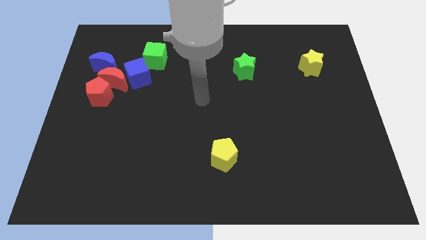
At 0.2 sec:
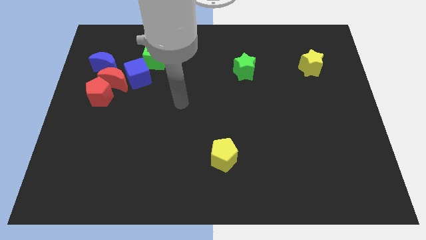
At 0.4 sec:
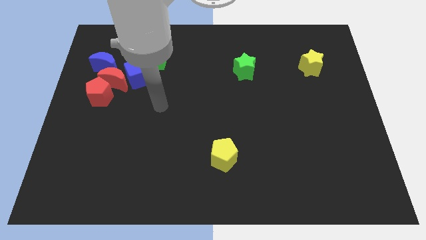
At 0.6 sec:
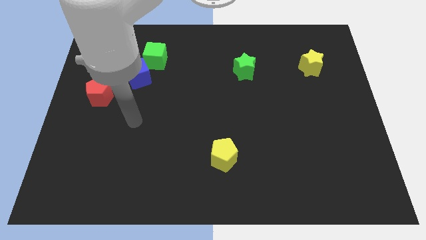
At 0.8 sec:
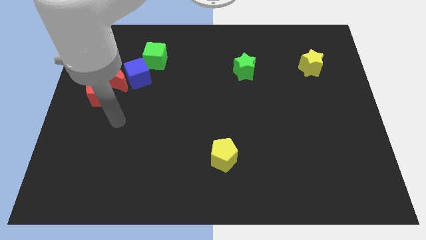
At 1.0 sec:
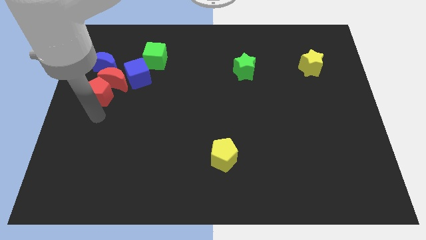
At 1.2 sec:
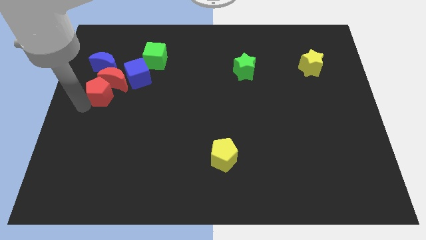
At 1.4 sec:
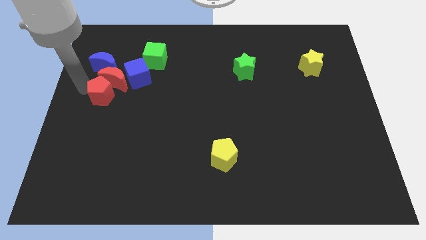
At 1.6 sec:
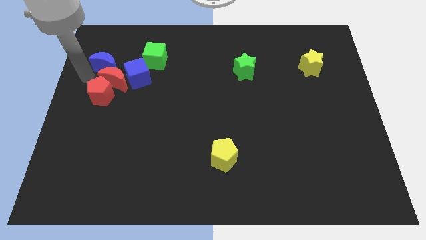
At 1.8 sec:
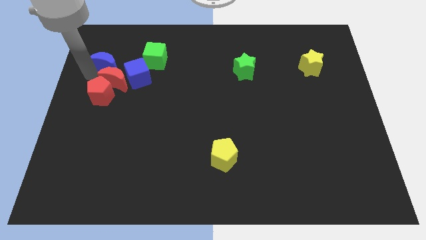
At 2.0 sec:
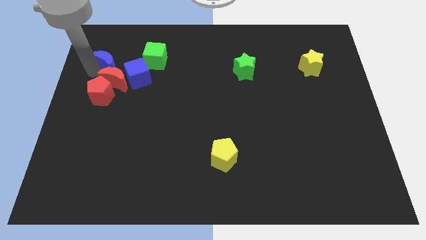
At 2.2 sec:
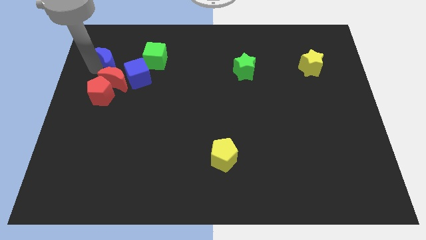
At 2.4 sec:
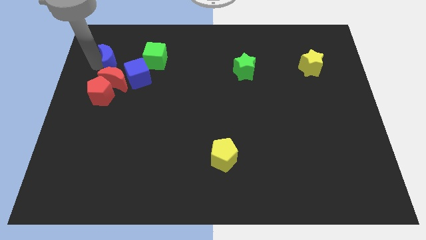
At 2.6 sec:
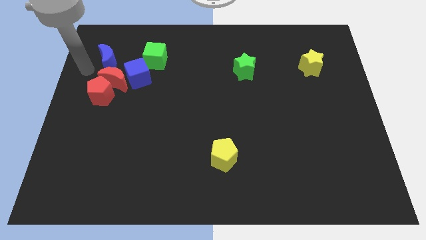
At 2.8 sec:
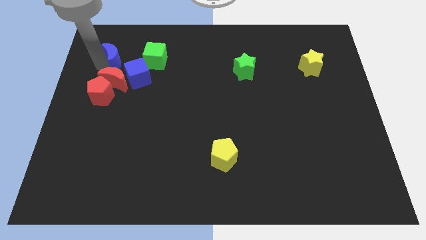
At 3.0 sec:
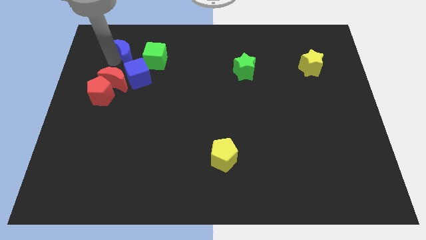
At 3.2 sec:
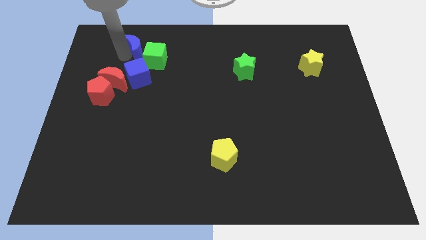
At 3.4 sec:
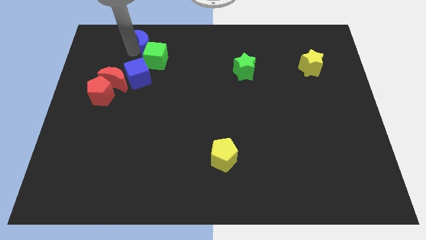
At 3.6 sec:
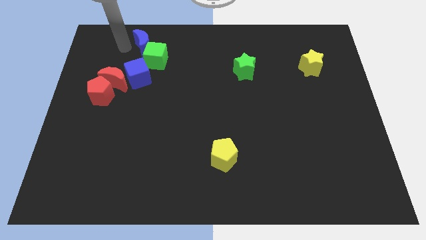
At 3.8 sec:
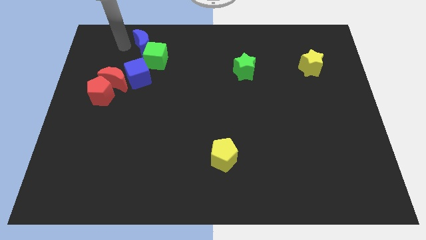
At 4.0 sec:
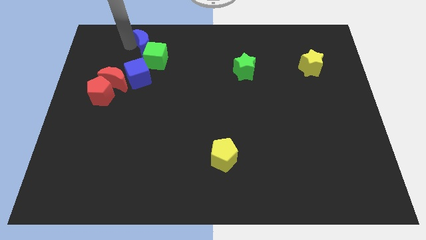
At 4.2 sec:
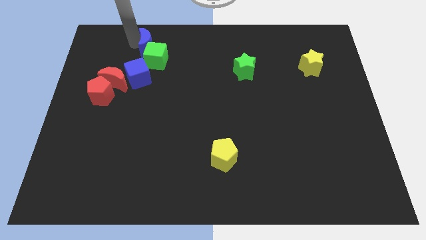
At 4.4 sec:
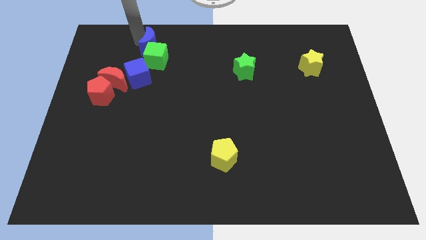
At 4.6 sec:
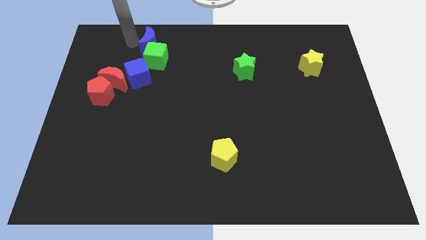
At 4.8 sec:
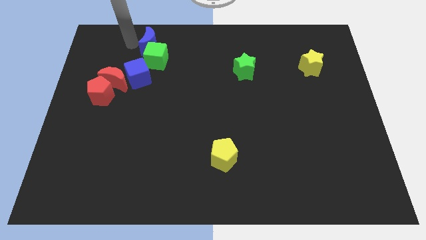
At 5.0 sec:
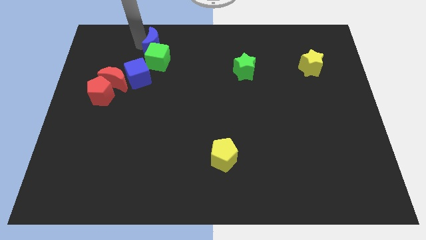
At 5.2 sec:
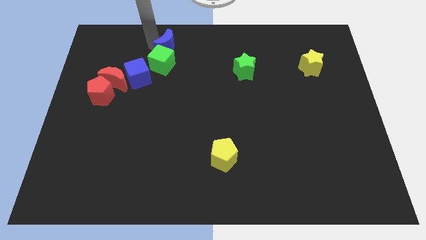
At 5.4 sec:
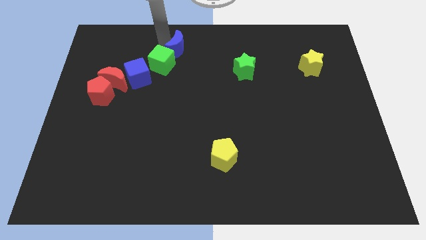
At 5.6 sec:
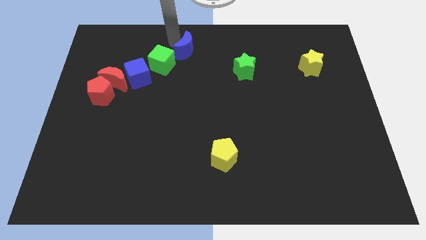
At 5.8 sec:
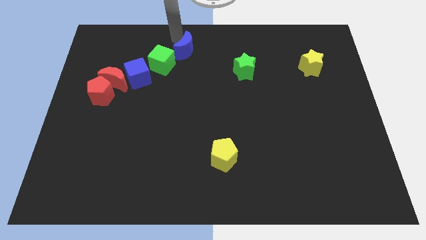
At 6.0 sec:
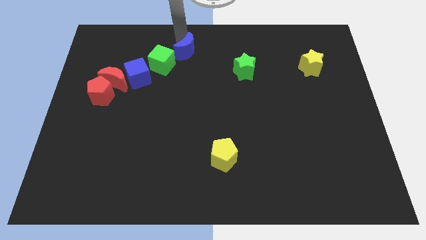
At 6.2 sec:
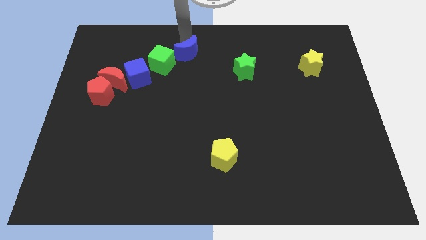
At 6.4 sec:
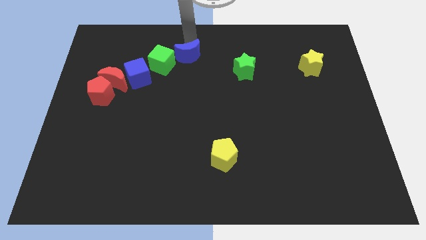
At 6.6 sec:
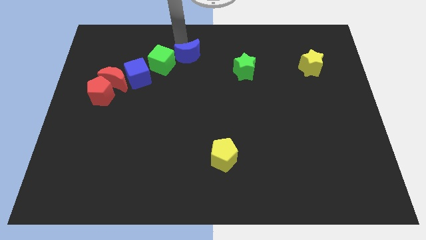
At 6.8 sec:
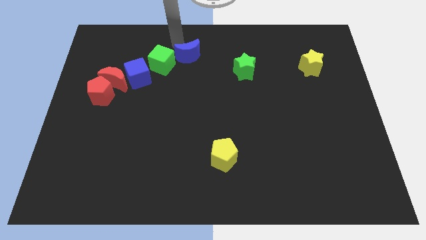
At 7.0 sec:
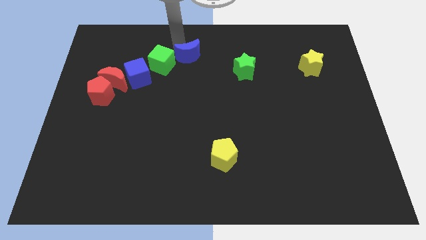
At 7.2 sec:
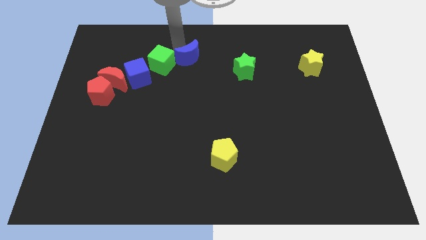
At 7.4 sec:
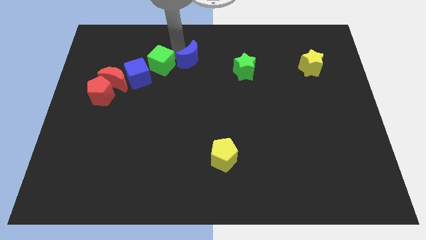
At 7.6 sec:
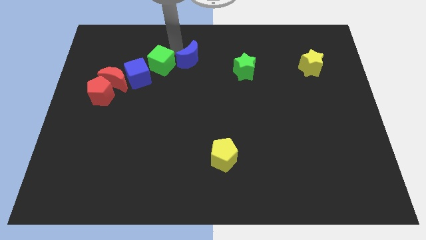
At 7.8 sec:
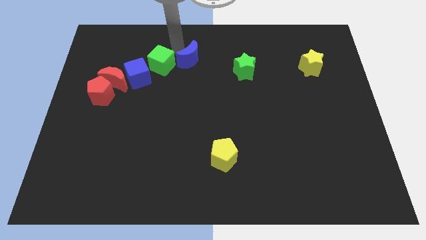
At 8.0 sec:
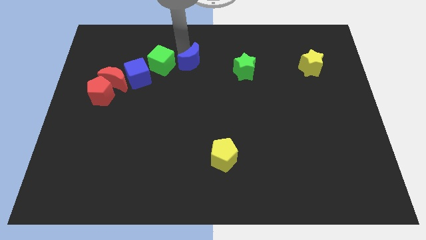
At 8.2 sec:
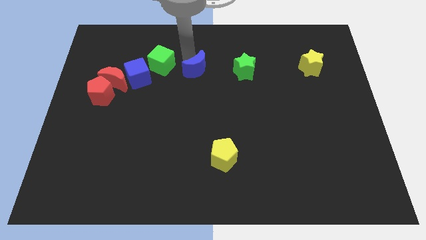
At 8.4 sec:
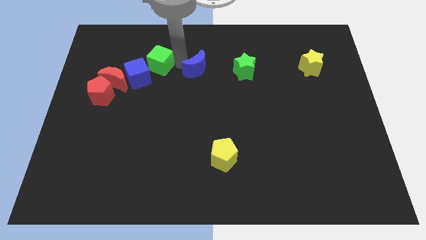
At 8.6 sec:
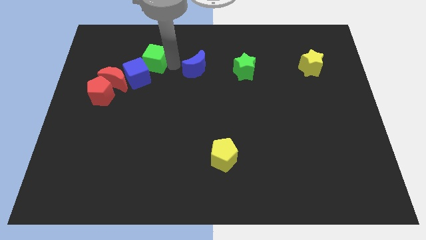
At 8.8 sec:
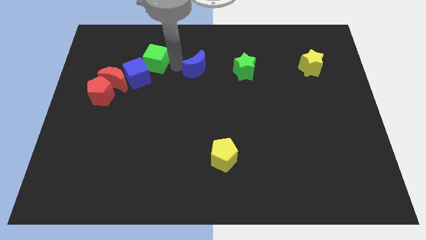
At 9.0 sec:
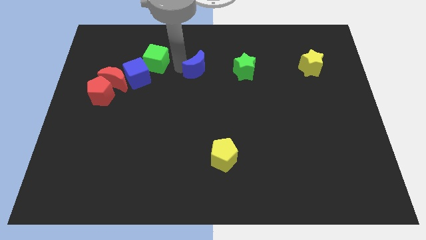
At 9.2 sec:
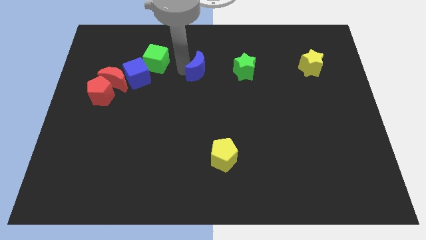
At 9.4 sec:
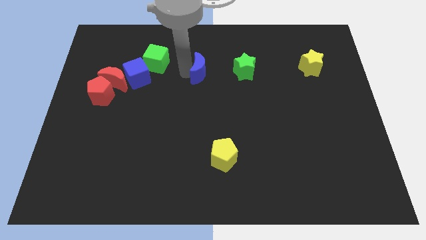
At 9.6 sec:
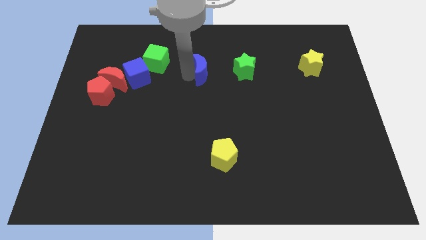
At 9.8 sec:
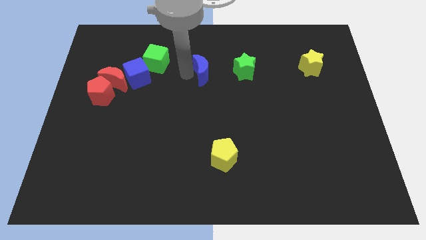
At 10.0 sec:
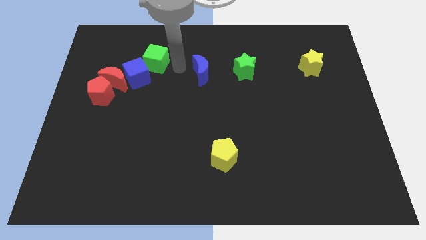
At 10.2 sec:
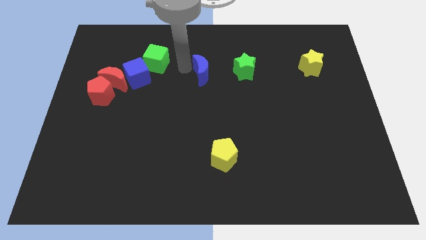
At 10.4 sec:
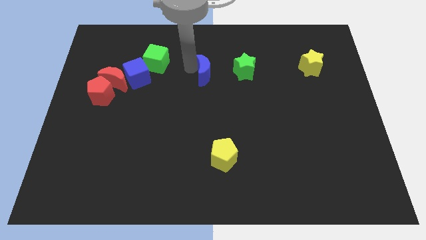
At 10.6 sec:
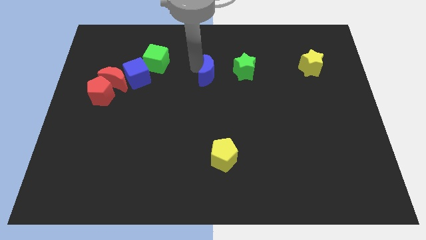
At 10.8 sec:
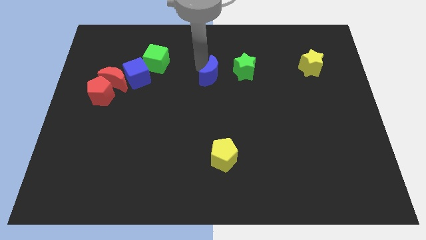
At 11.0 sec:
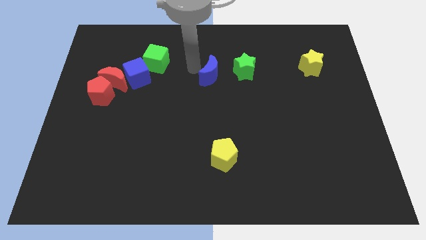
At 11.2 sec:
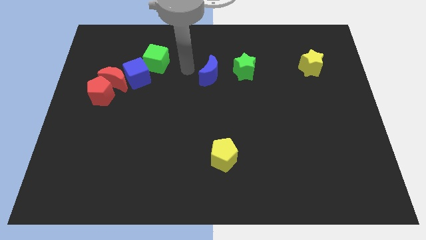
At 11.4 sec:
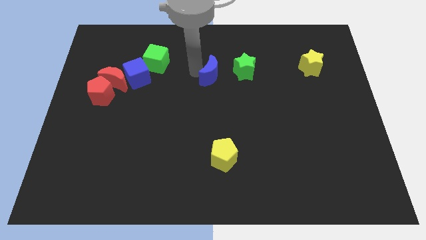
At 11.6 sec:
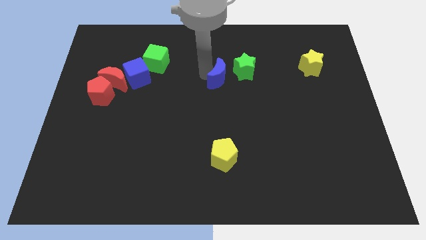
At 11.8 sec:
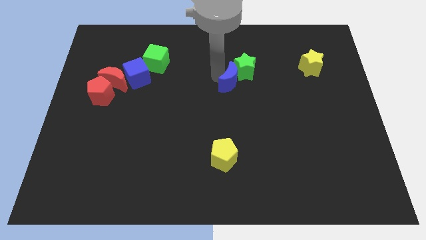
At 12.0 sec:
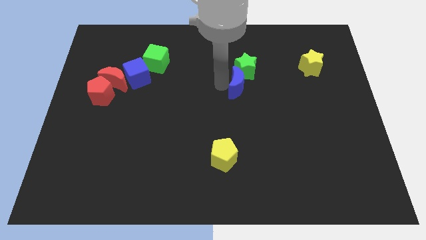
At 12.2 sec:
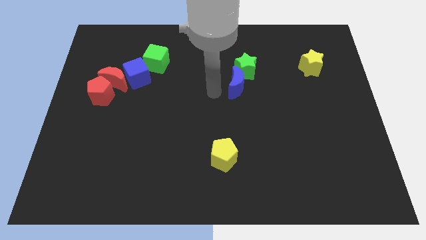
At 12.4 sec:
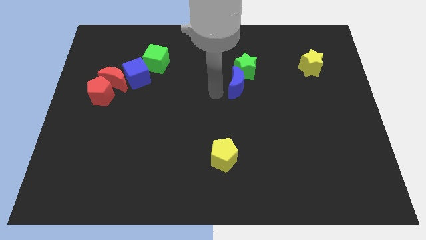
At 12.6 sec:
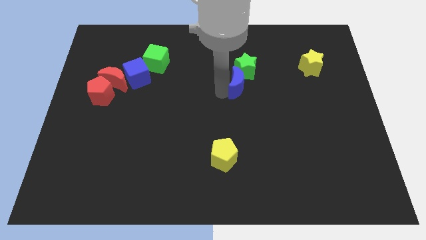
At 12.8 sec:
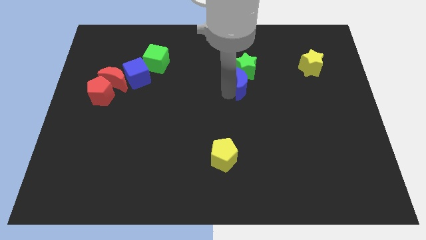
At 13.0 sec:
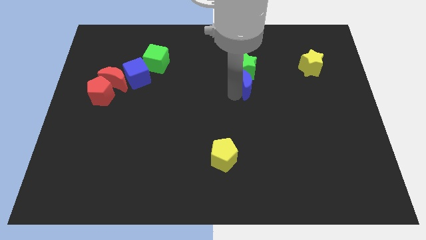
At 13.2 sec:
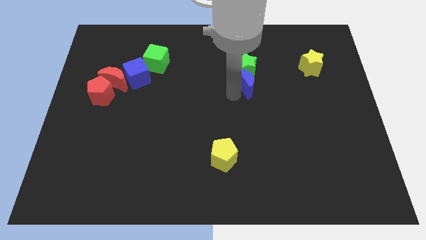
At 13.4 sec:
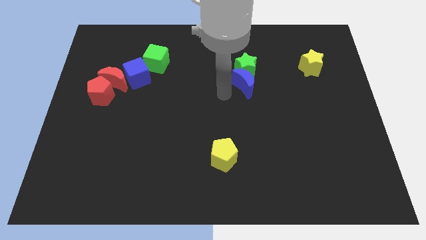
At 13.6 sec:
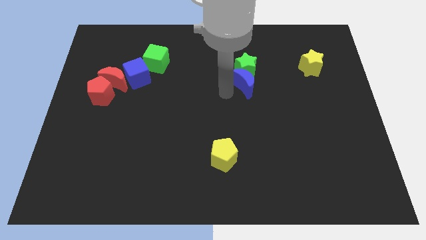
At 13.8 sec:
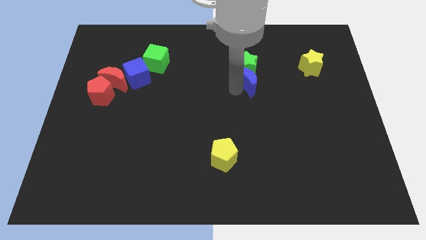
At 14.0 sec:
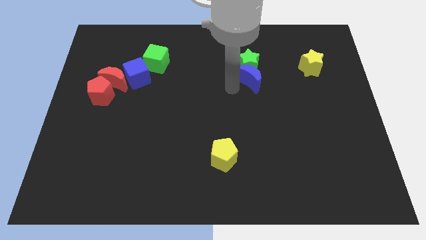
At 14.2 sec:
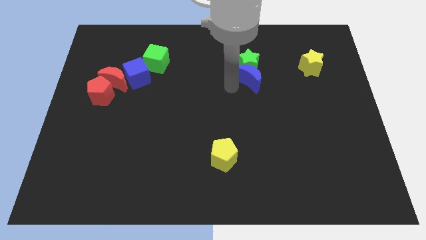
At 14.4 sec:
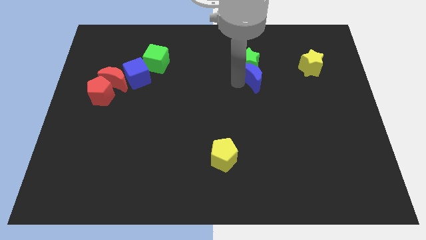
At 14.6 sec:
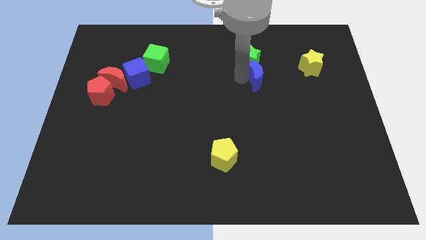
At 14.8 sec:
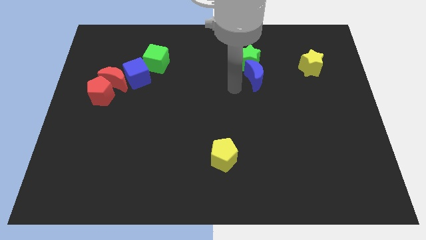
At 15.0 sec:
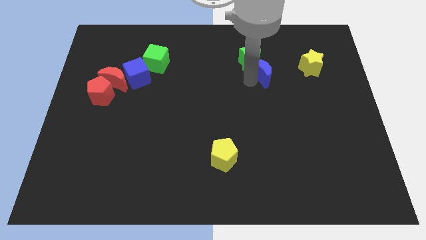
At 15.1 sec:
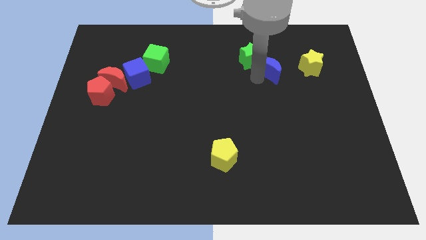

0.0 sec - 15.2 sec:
put the blue moon to the right side of the green star

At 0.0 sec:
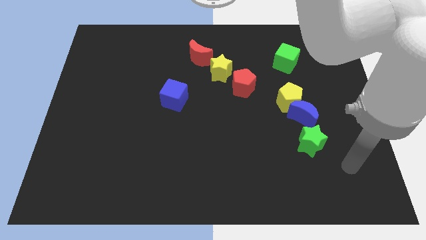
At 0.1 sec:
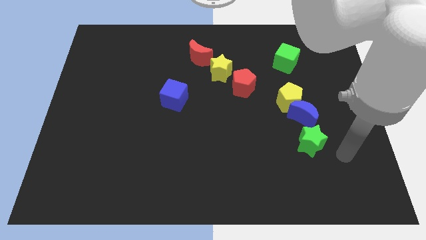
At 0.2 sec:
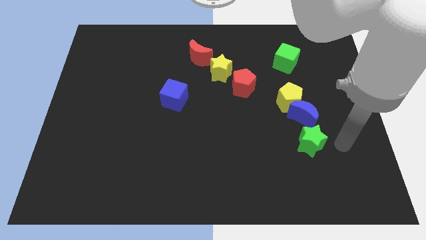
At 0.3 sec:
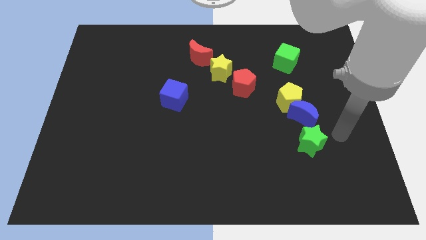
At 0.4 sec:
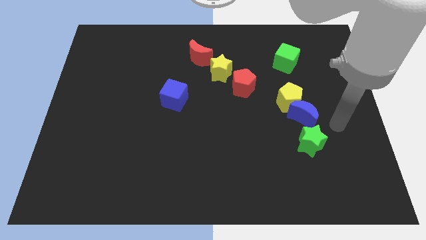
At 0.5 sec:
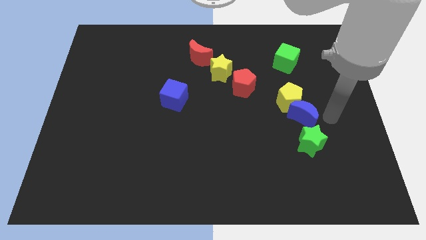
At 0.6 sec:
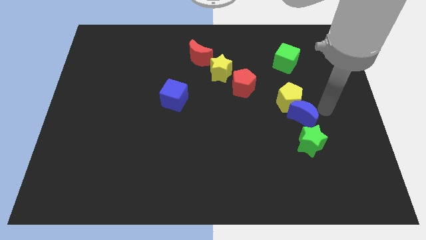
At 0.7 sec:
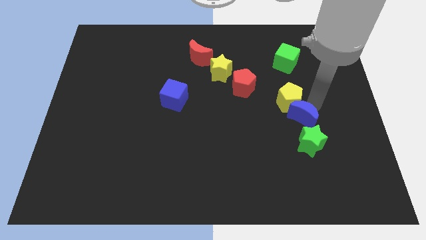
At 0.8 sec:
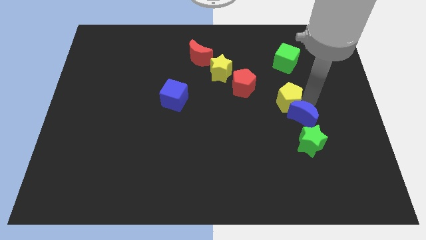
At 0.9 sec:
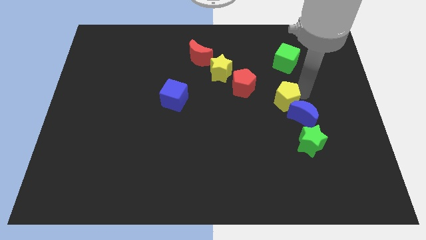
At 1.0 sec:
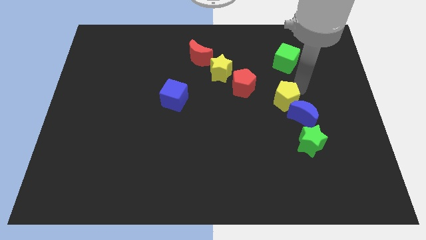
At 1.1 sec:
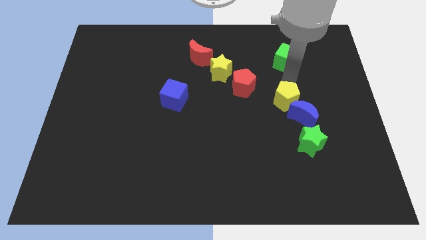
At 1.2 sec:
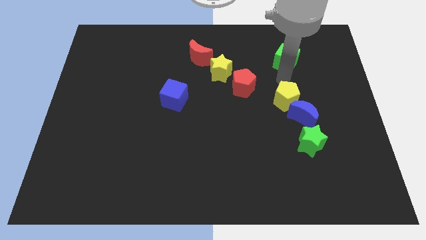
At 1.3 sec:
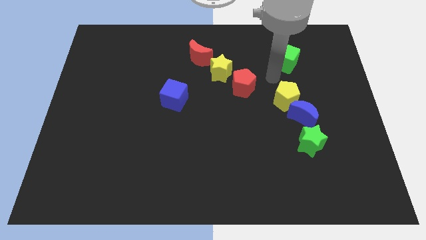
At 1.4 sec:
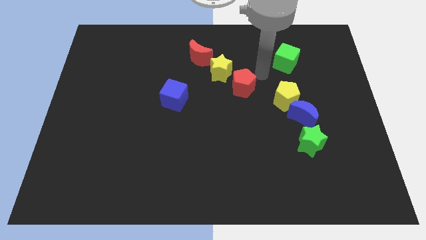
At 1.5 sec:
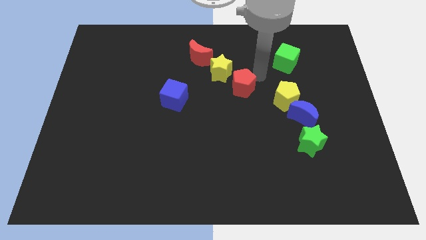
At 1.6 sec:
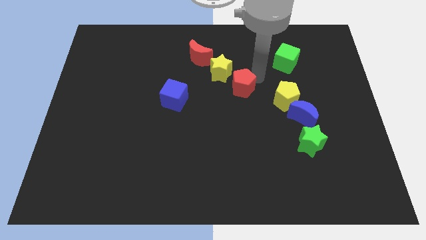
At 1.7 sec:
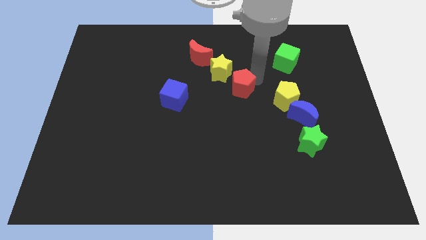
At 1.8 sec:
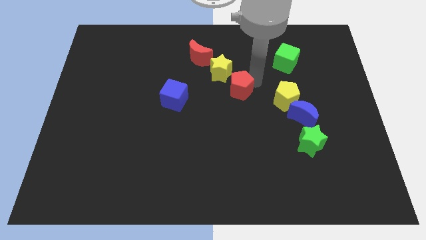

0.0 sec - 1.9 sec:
move the red pentagon to the bottom side of the yellow star
